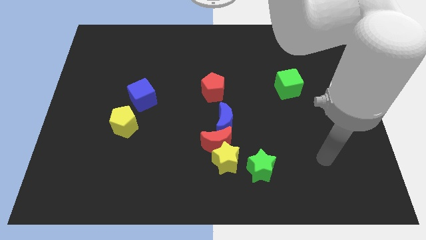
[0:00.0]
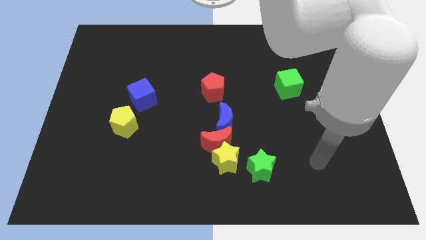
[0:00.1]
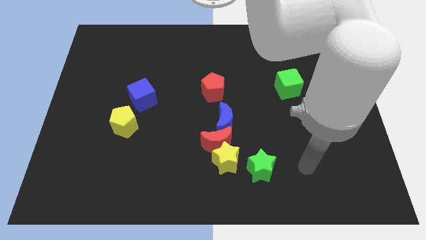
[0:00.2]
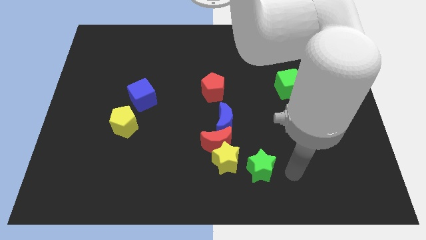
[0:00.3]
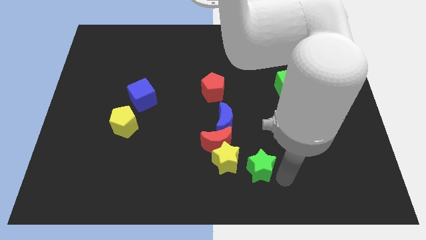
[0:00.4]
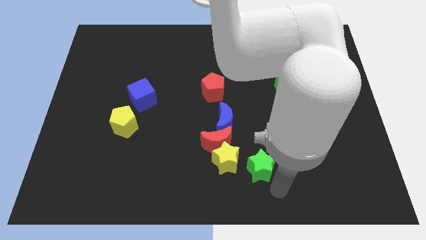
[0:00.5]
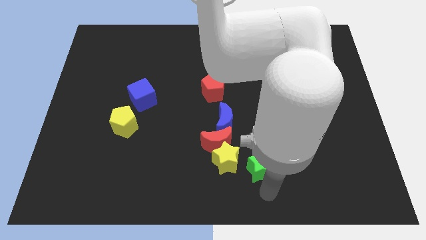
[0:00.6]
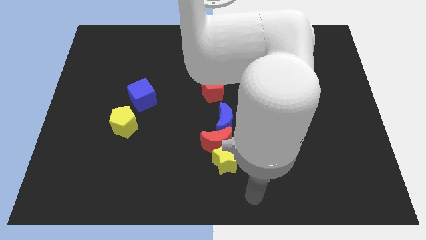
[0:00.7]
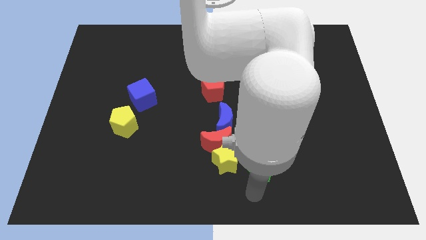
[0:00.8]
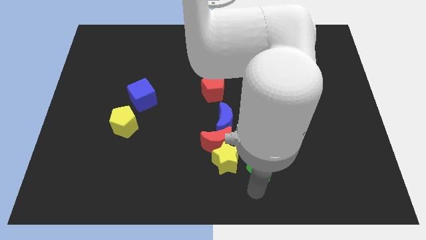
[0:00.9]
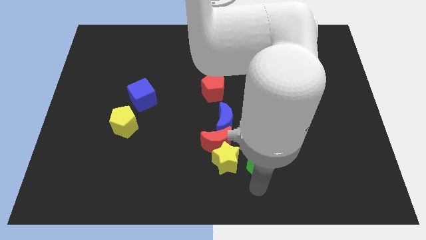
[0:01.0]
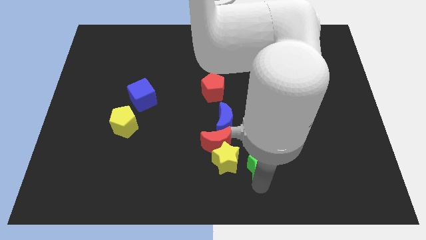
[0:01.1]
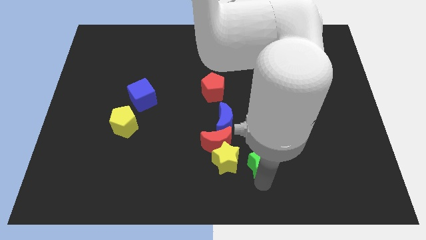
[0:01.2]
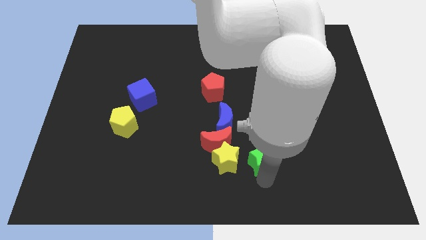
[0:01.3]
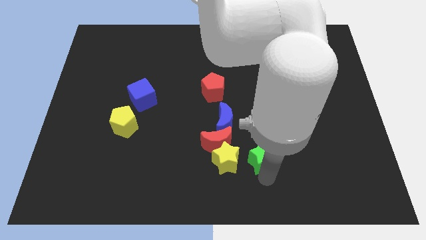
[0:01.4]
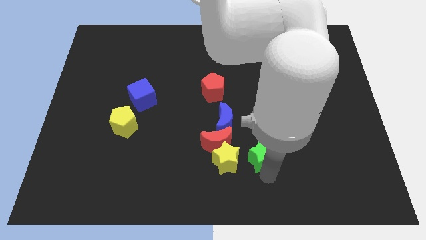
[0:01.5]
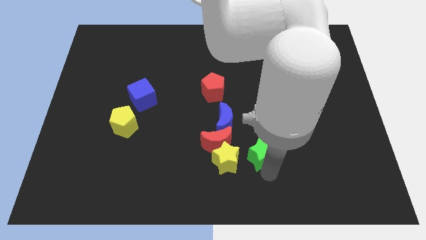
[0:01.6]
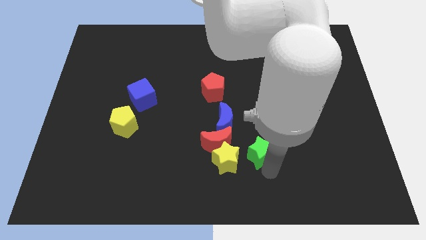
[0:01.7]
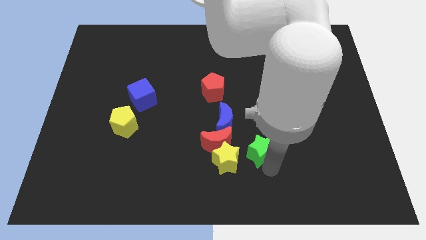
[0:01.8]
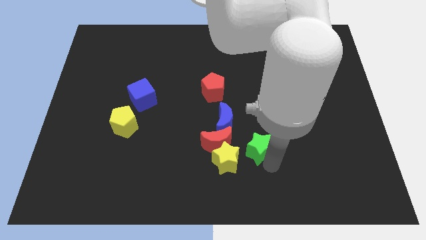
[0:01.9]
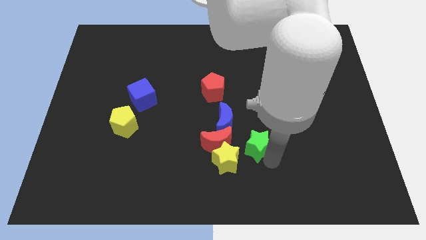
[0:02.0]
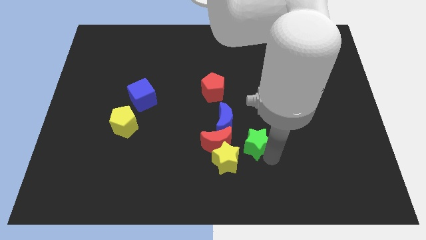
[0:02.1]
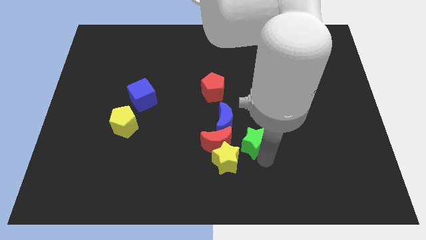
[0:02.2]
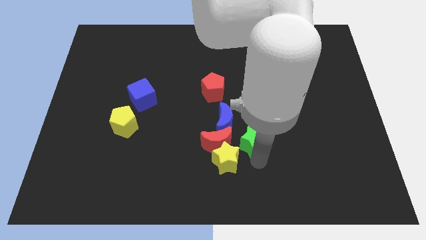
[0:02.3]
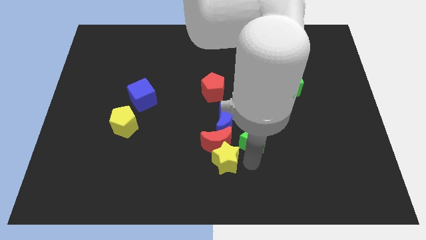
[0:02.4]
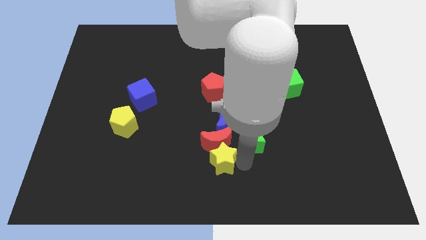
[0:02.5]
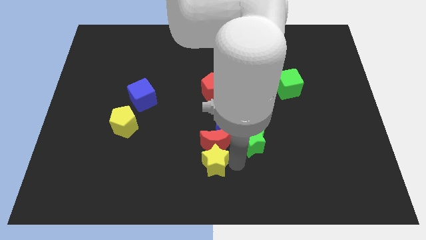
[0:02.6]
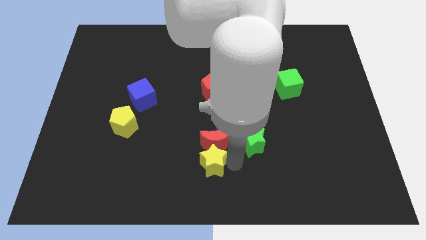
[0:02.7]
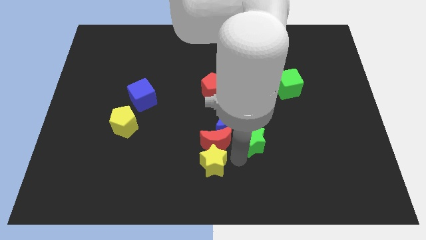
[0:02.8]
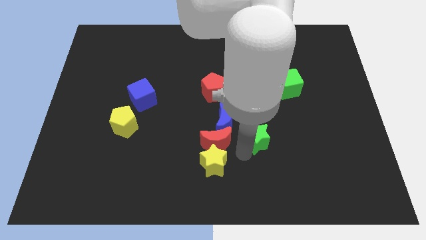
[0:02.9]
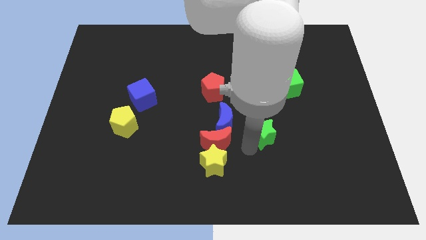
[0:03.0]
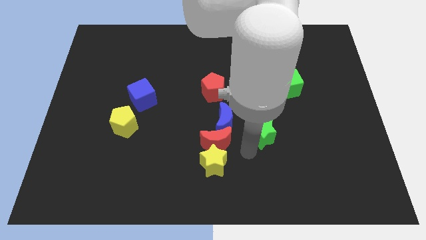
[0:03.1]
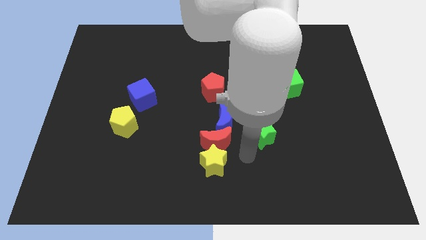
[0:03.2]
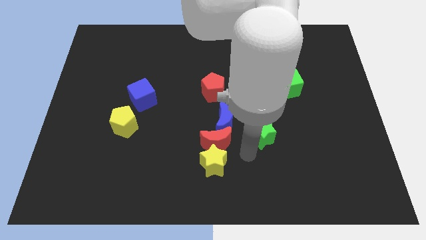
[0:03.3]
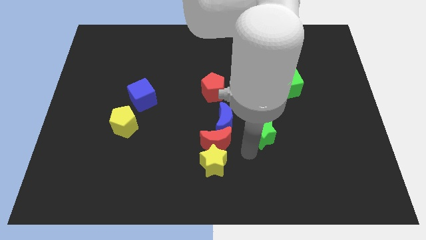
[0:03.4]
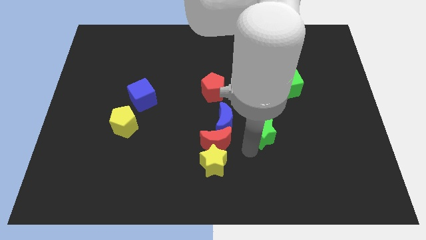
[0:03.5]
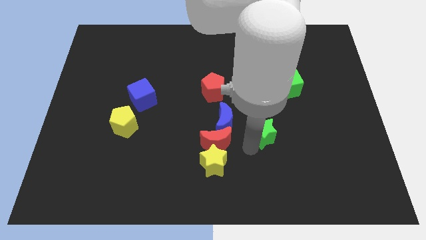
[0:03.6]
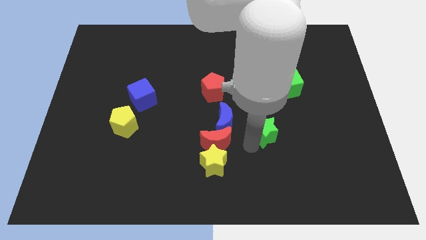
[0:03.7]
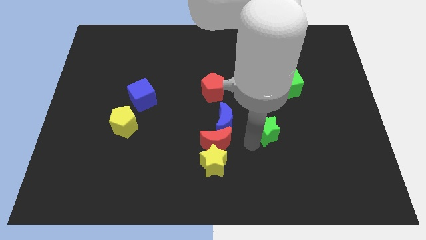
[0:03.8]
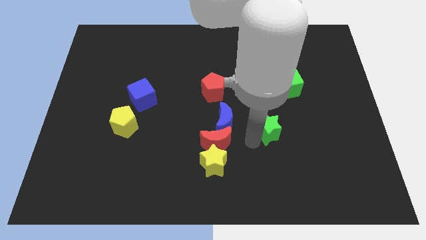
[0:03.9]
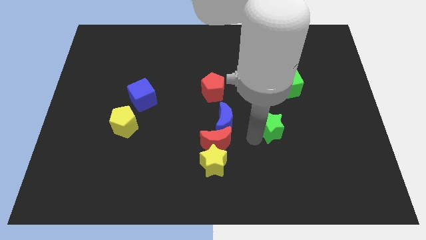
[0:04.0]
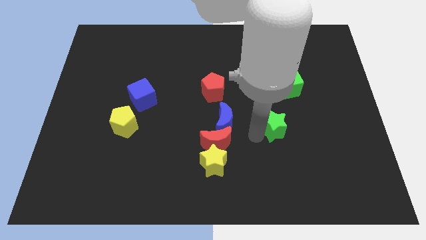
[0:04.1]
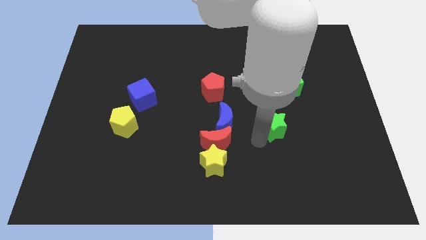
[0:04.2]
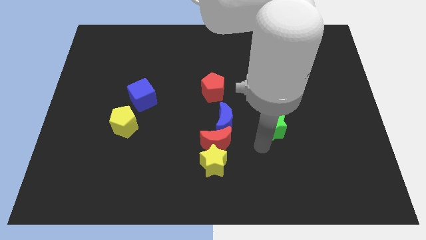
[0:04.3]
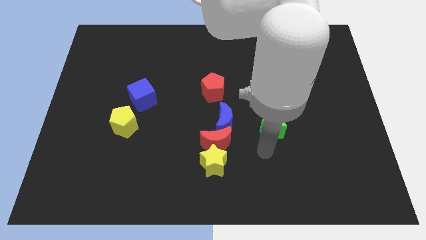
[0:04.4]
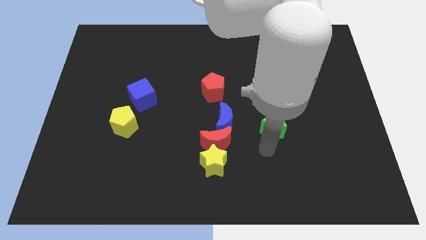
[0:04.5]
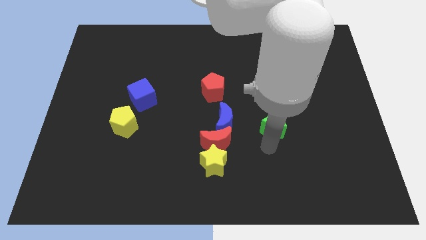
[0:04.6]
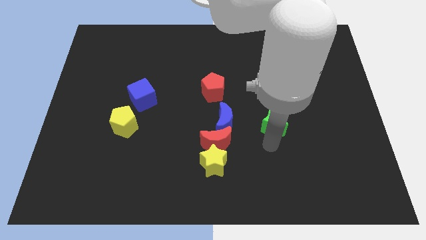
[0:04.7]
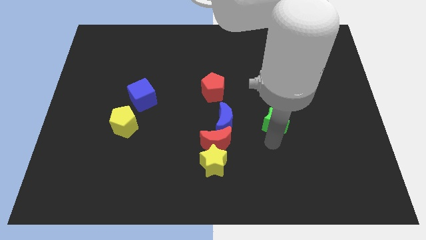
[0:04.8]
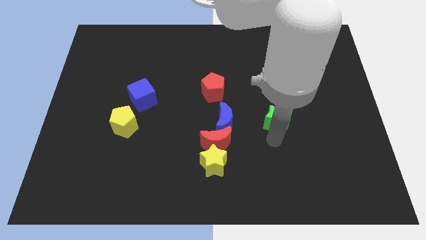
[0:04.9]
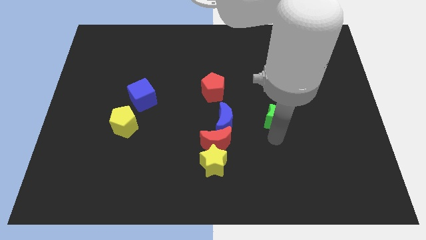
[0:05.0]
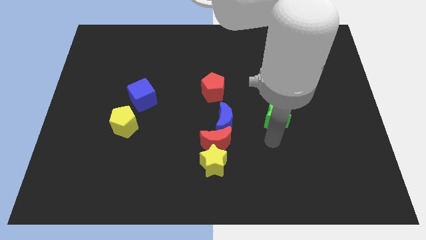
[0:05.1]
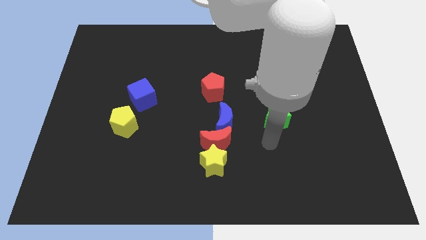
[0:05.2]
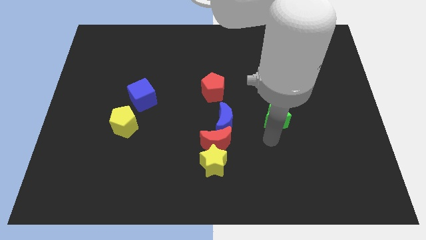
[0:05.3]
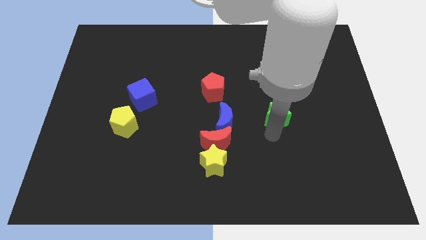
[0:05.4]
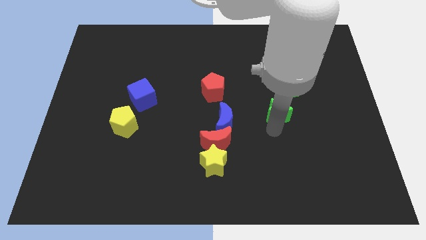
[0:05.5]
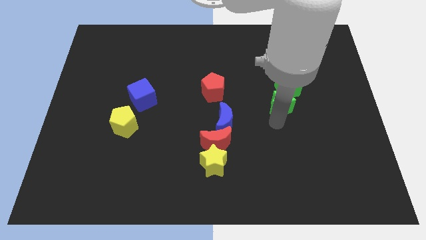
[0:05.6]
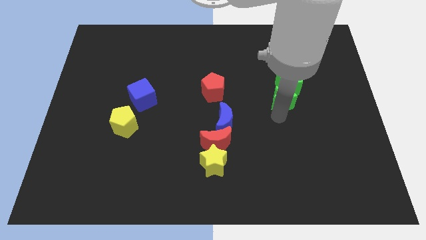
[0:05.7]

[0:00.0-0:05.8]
push the green star close to the green cube

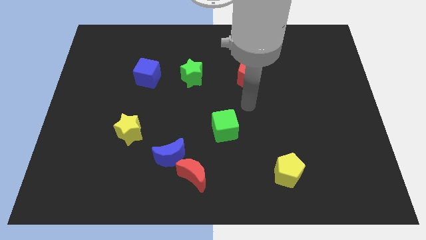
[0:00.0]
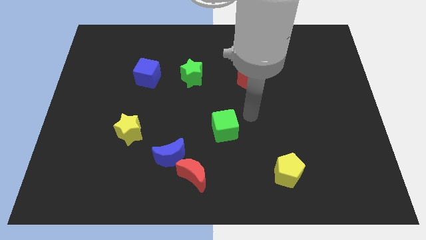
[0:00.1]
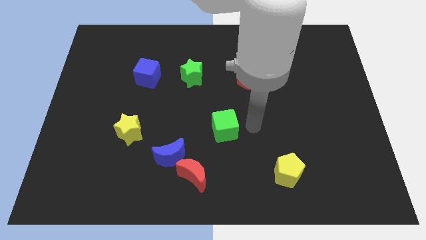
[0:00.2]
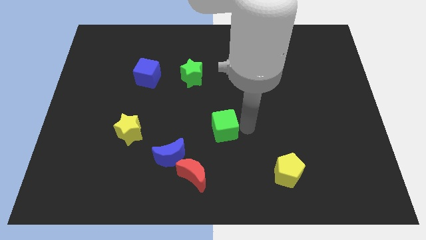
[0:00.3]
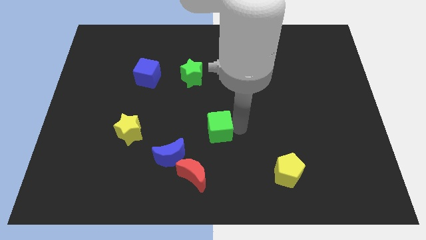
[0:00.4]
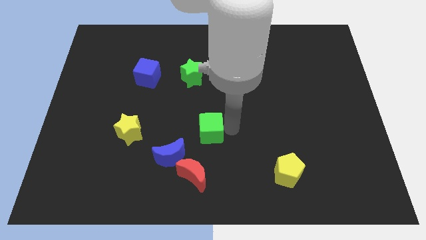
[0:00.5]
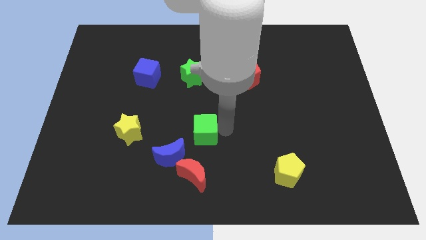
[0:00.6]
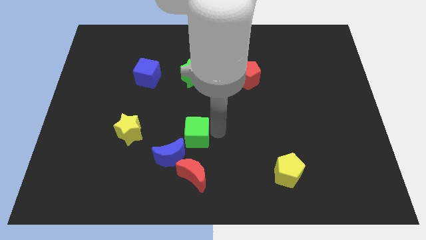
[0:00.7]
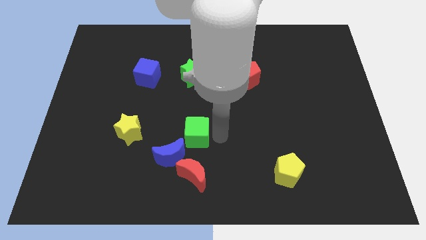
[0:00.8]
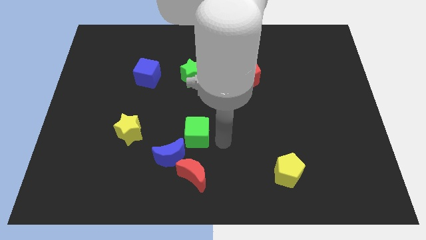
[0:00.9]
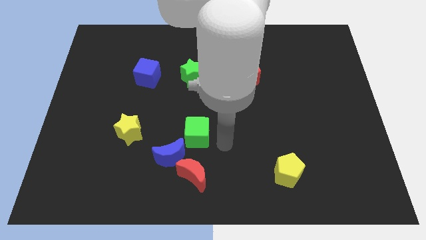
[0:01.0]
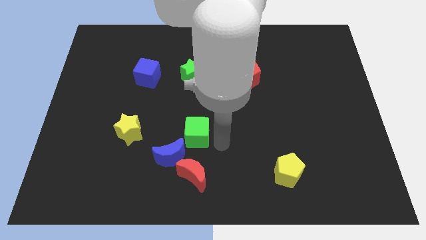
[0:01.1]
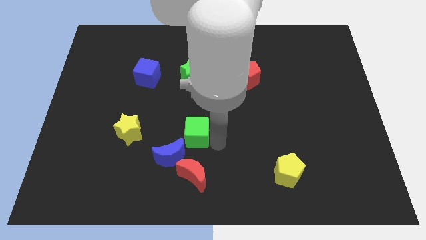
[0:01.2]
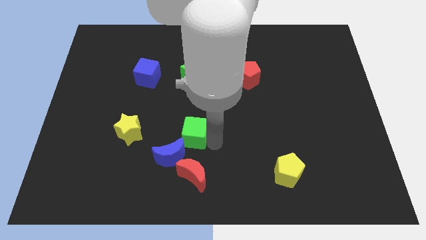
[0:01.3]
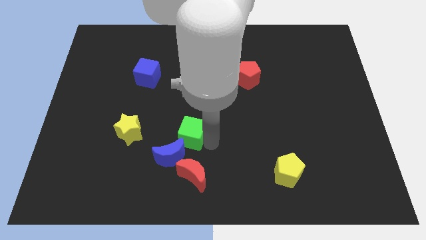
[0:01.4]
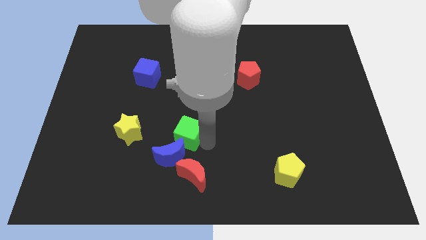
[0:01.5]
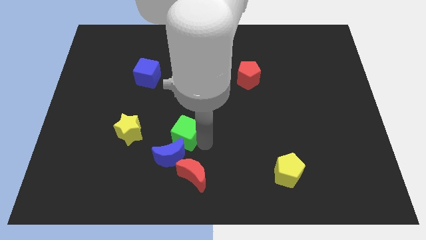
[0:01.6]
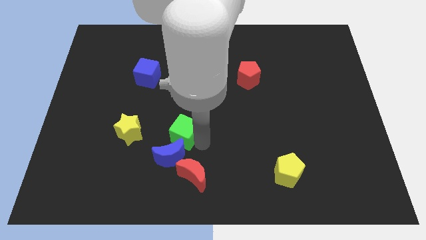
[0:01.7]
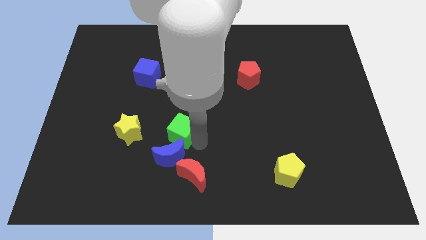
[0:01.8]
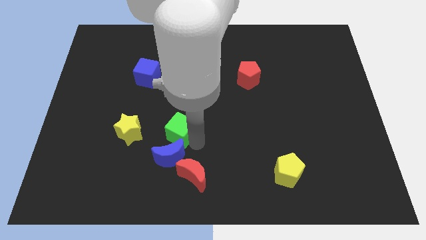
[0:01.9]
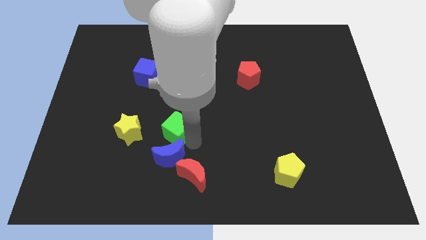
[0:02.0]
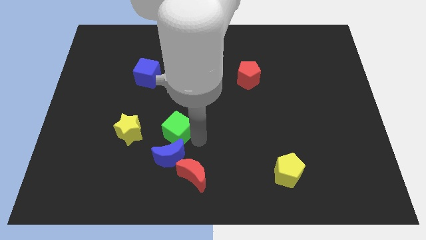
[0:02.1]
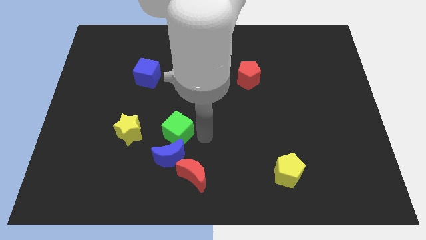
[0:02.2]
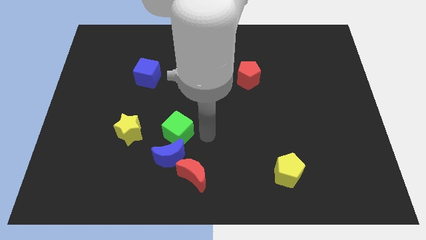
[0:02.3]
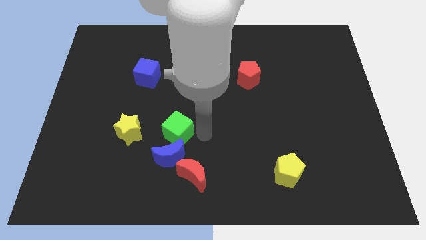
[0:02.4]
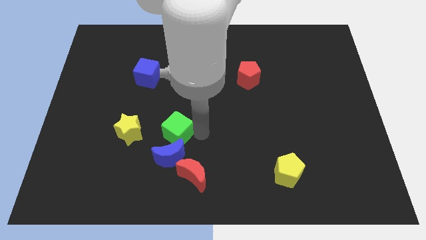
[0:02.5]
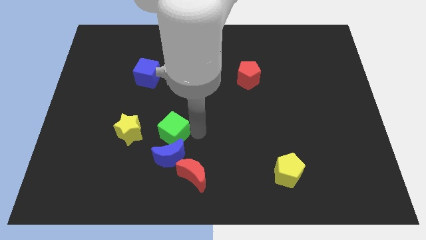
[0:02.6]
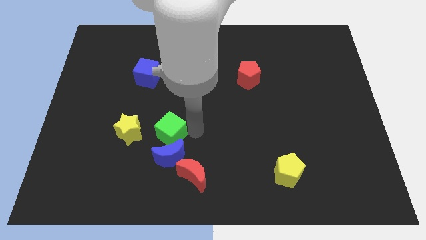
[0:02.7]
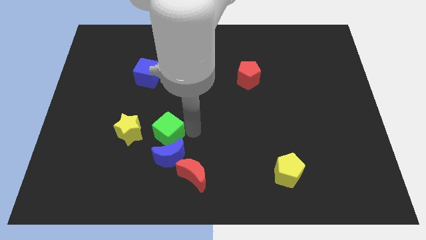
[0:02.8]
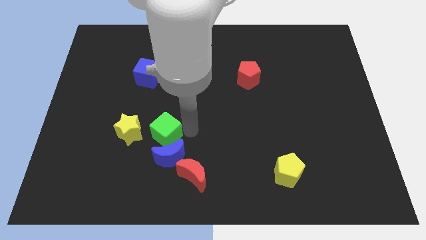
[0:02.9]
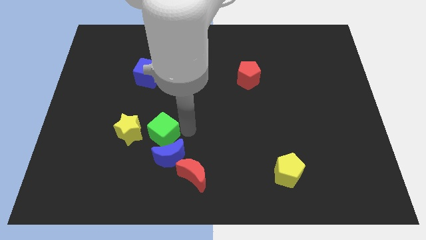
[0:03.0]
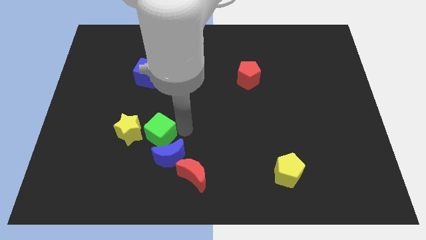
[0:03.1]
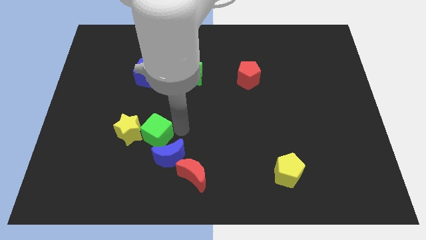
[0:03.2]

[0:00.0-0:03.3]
move the green cube towards the yellow star
